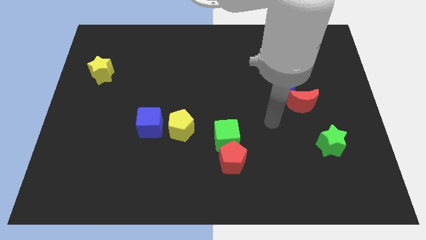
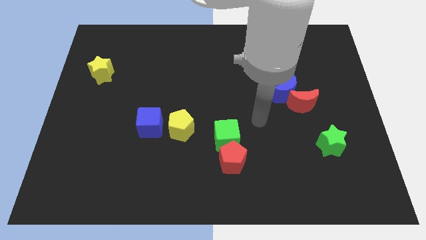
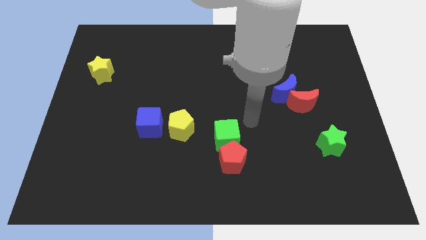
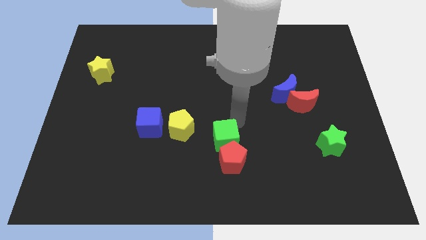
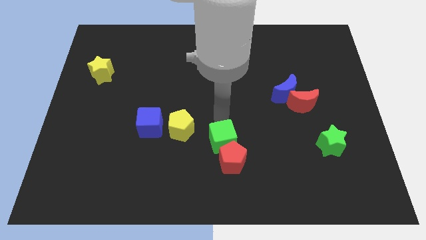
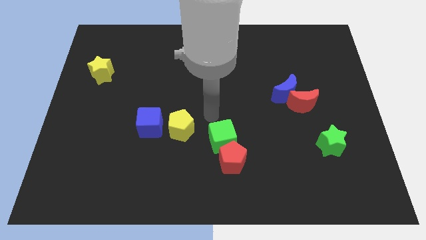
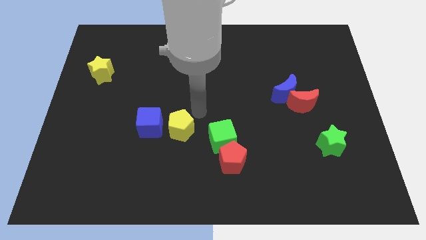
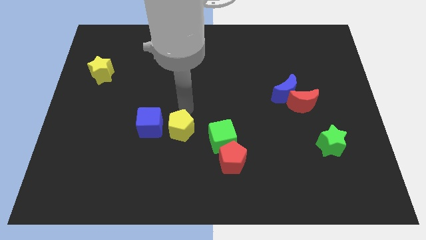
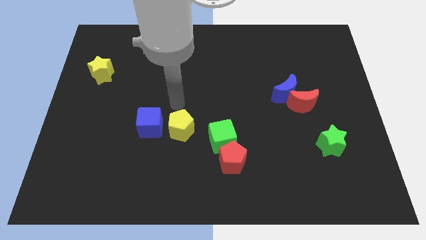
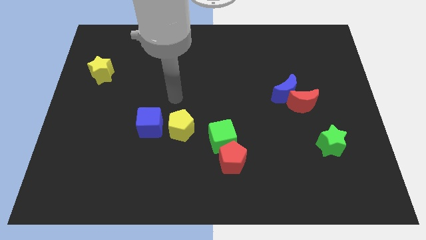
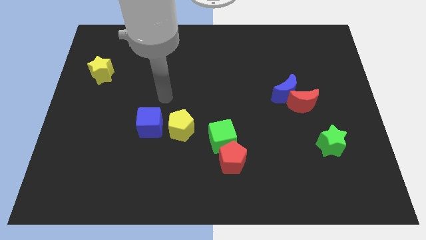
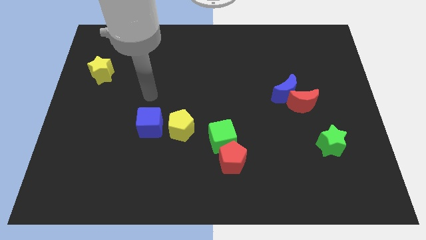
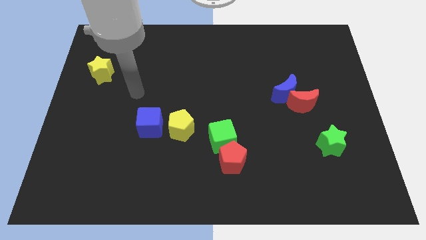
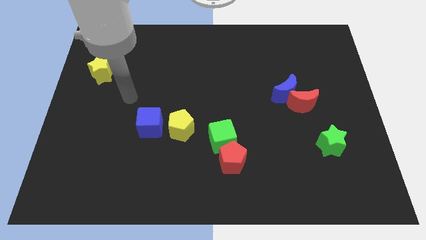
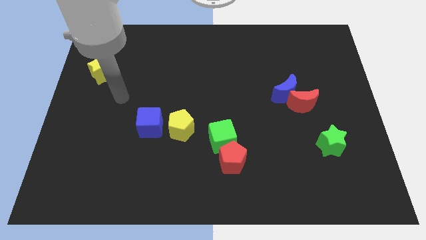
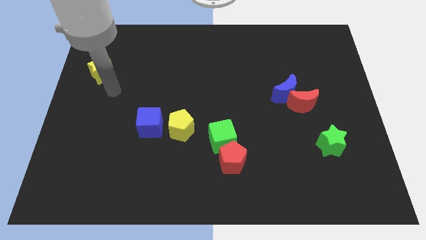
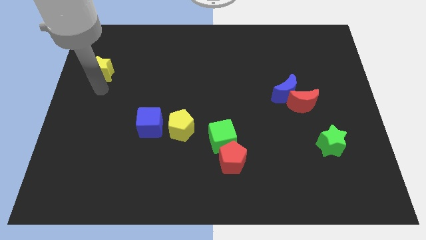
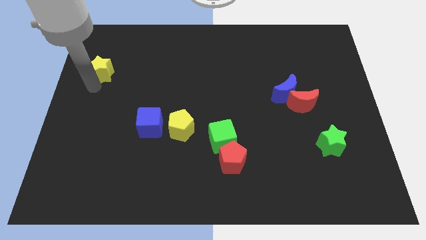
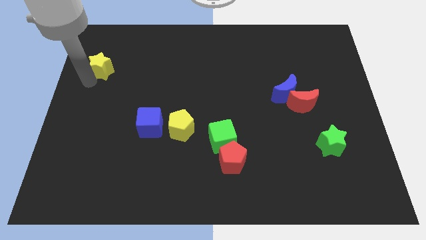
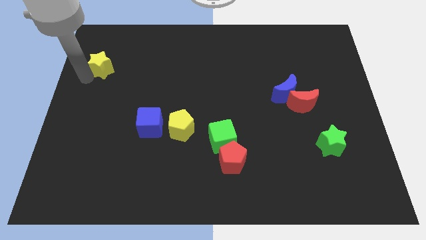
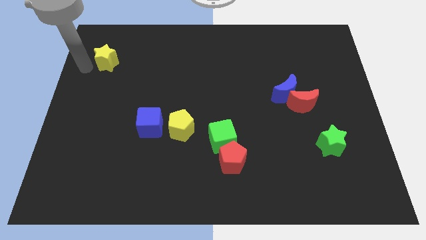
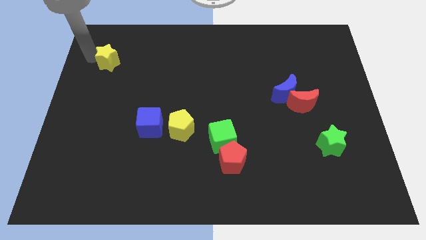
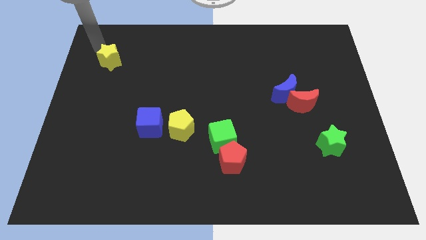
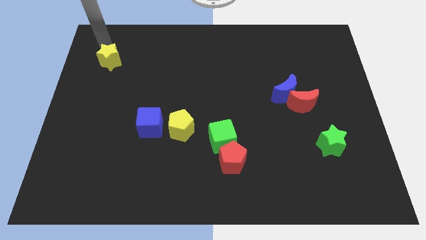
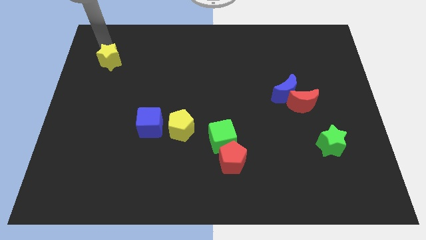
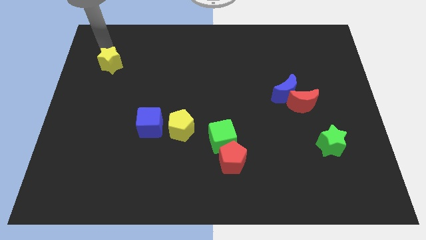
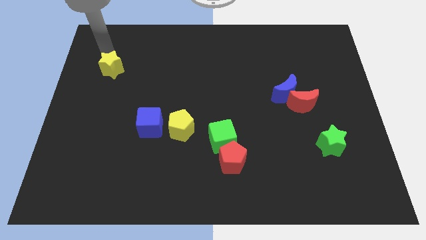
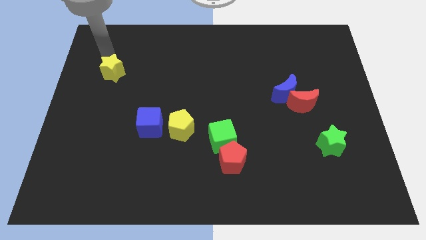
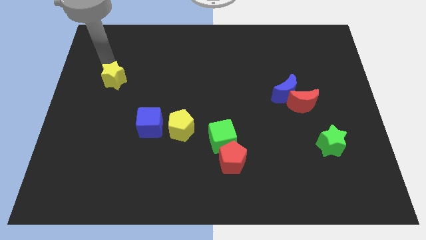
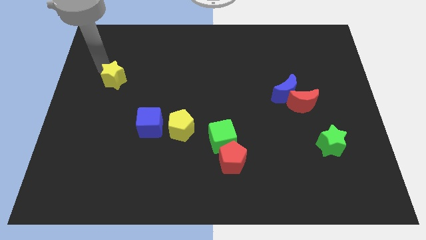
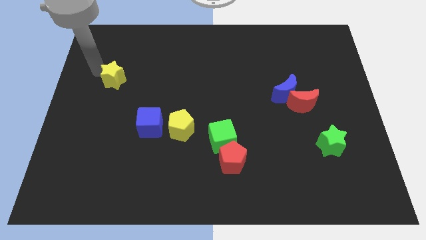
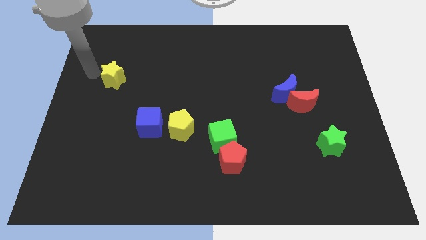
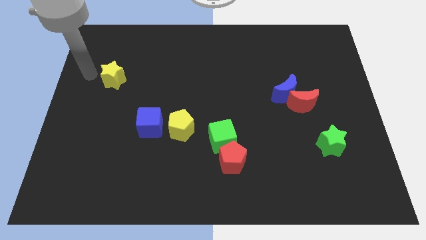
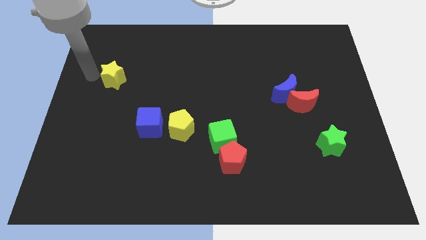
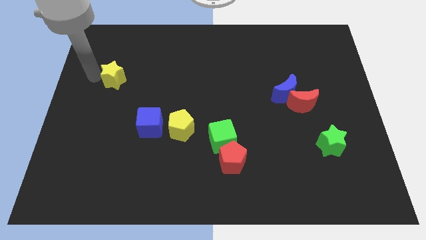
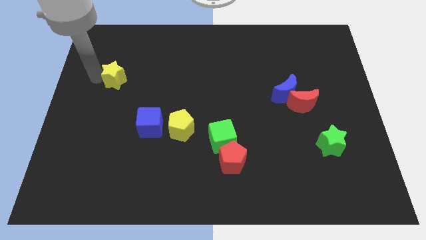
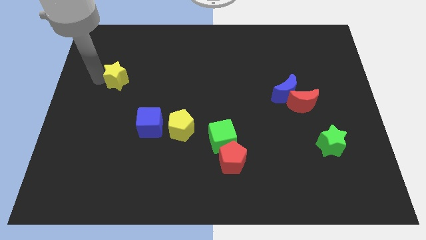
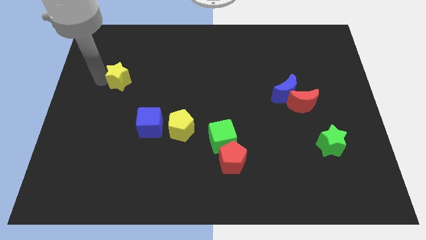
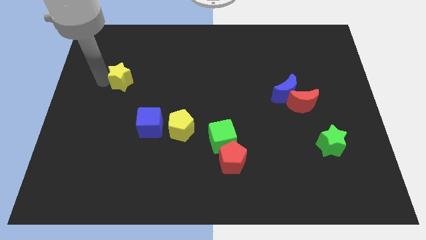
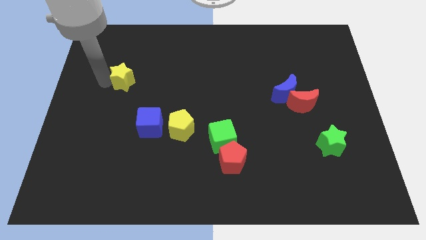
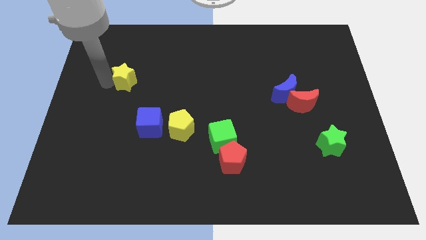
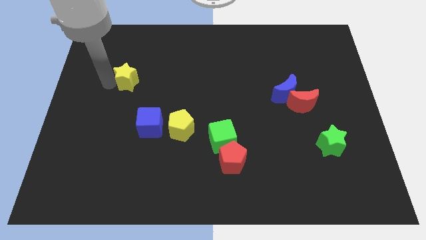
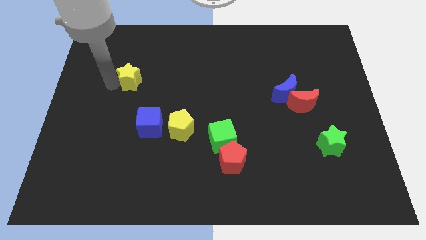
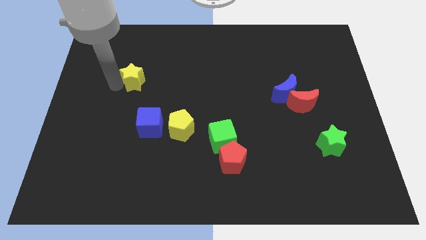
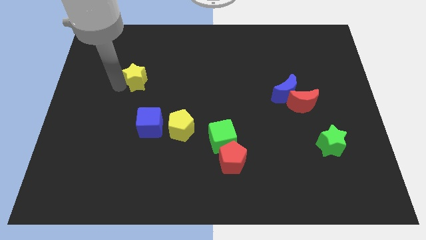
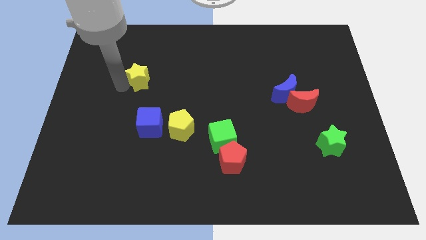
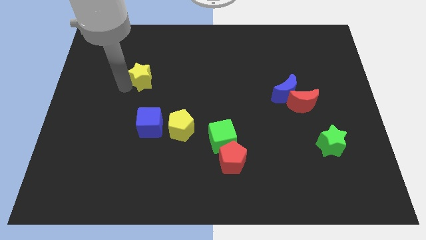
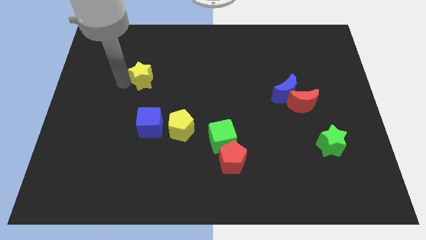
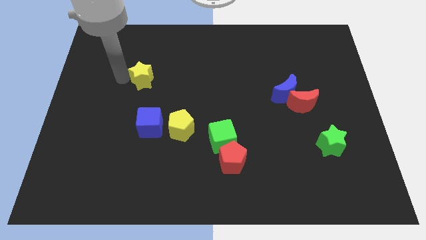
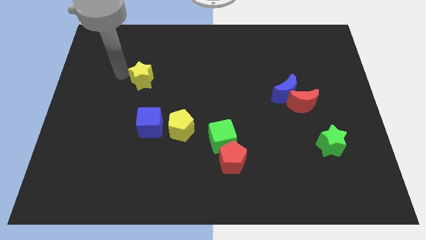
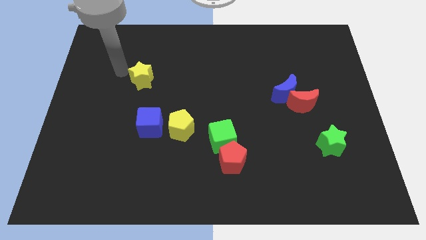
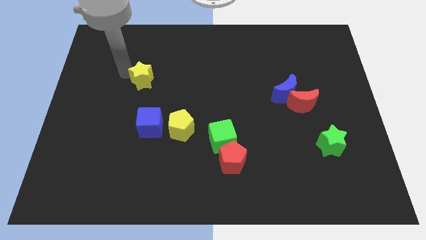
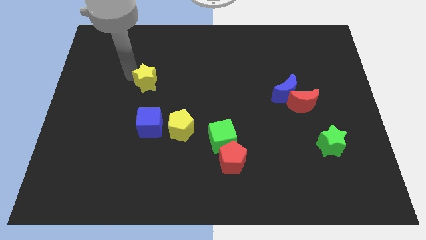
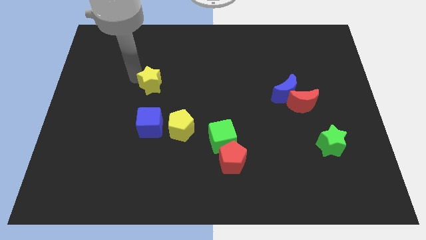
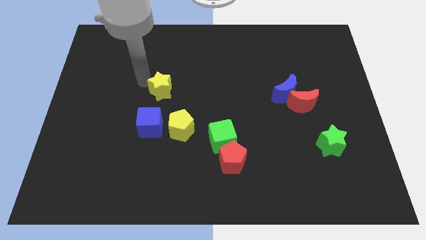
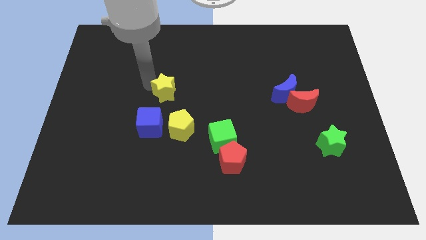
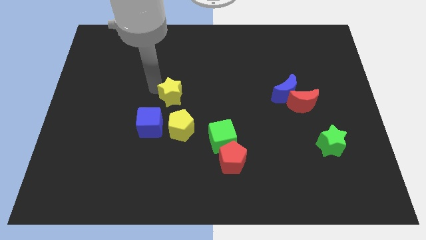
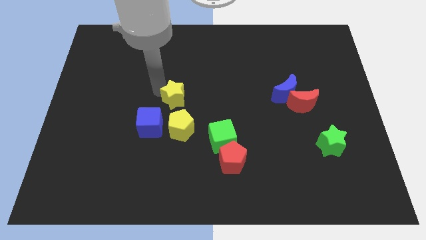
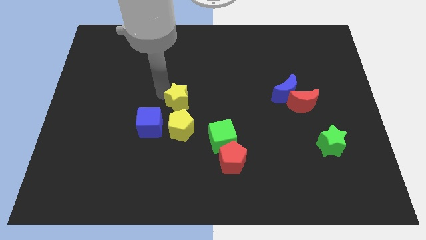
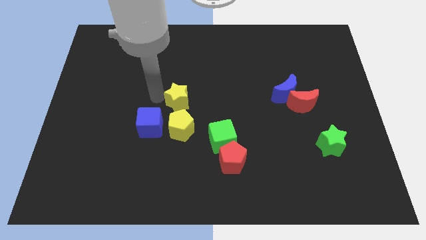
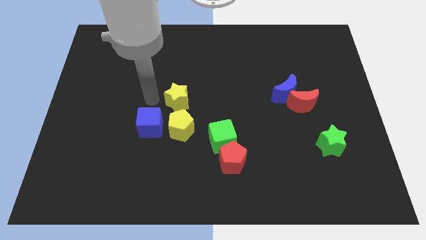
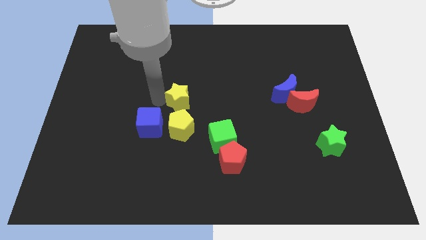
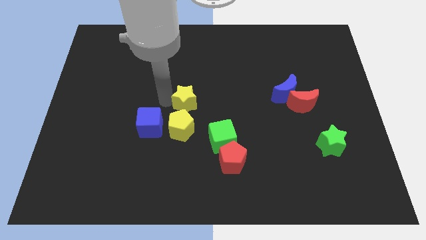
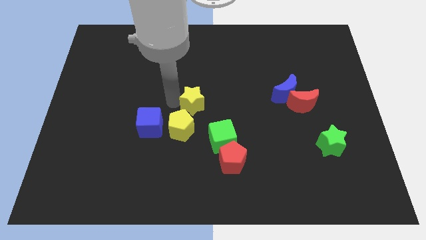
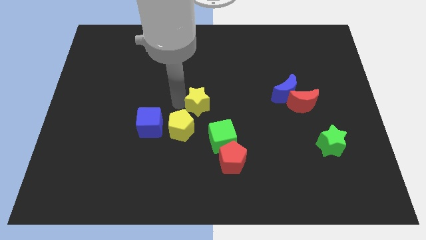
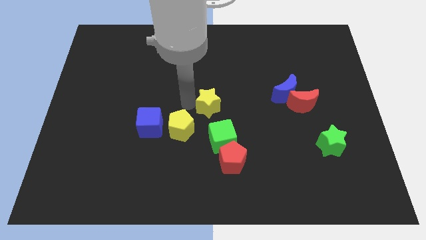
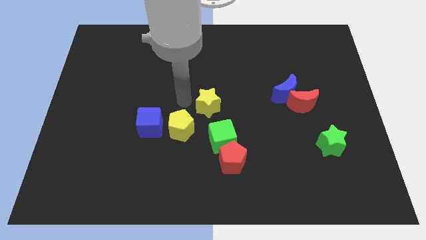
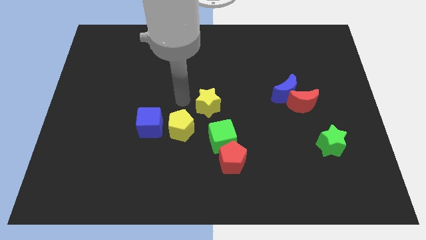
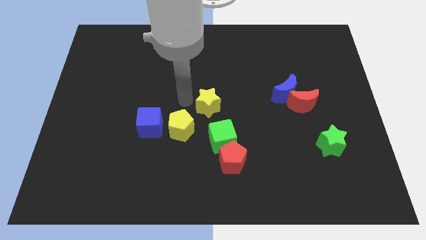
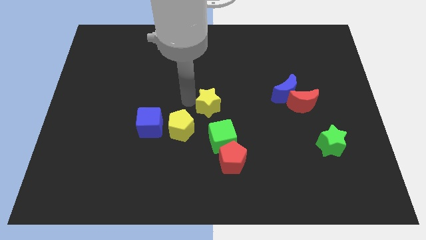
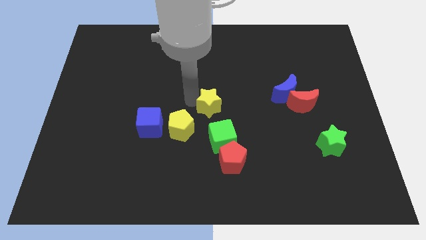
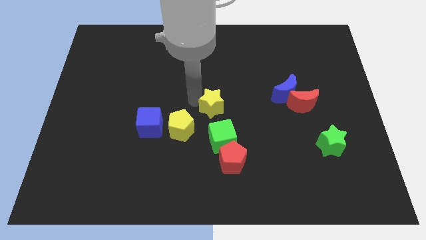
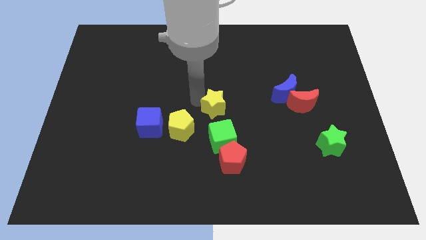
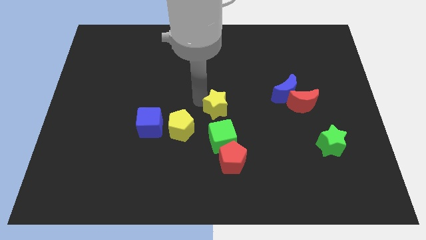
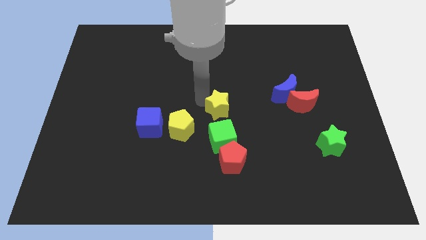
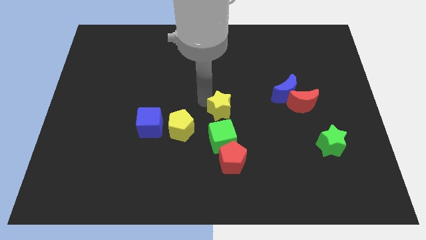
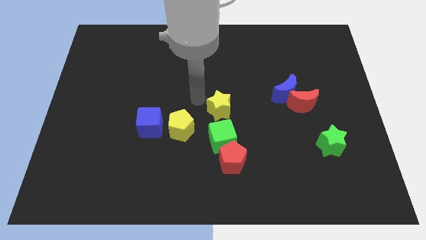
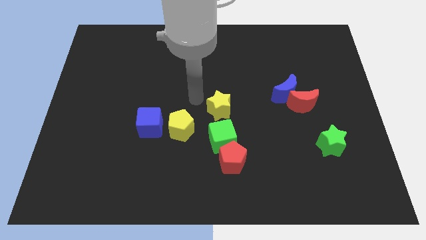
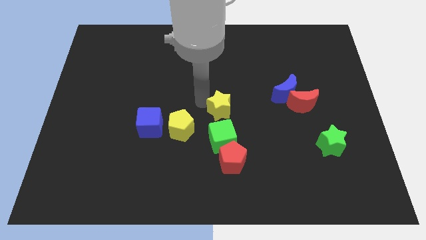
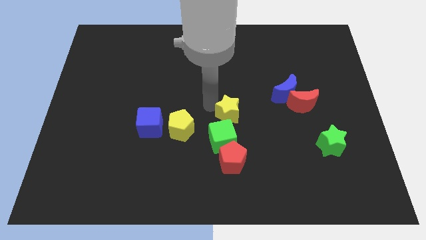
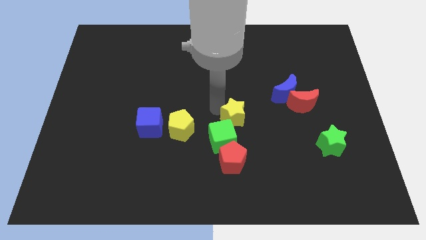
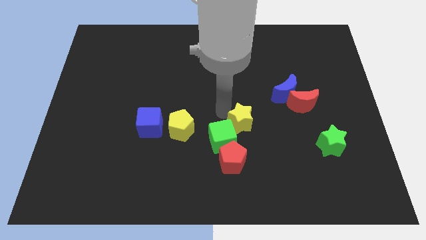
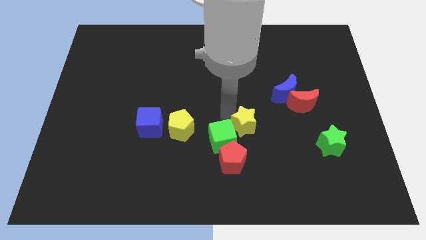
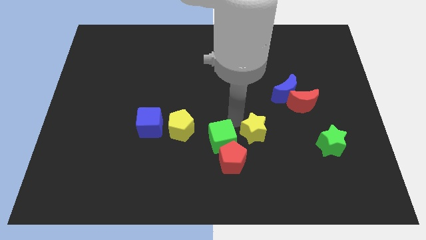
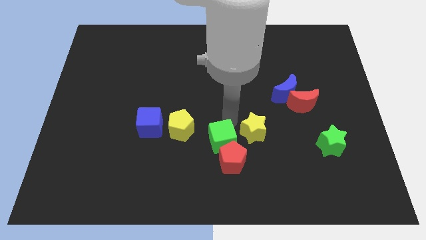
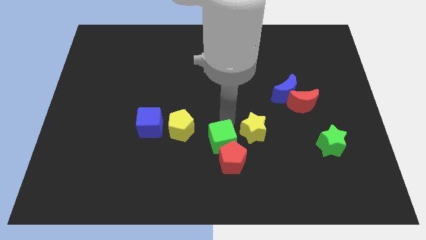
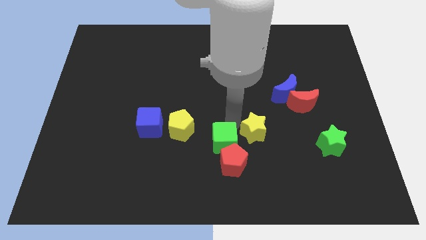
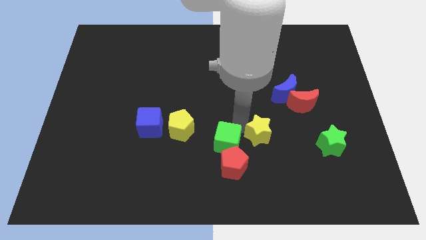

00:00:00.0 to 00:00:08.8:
put the yellow star to the left side of the green star
